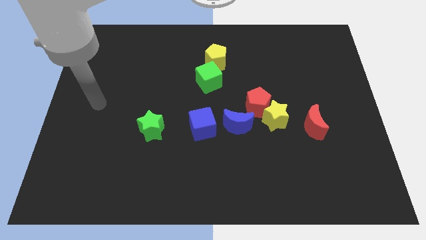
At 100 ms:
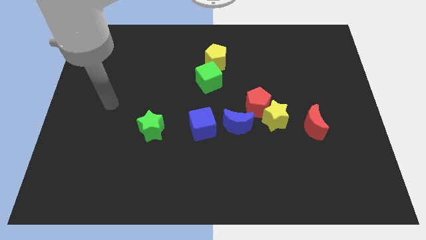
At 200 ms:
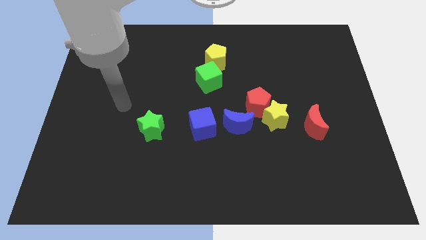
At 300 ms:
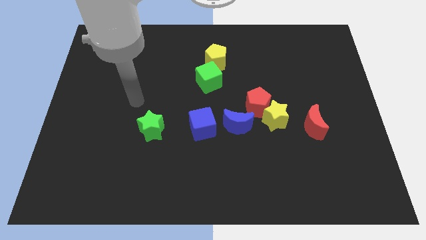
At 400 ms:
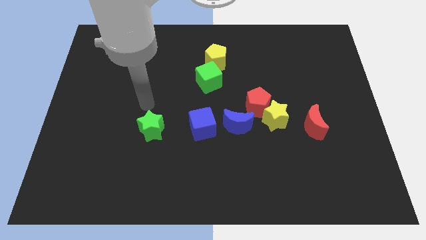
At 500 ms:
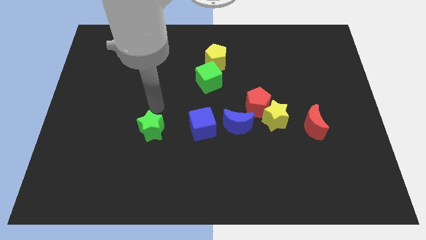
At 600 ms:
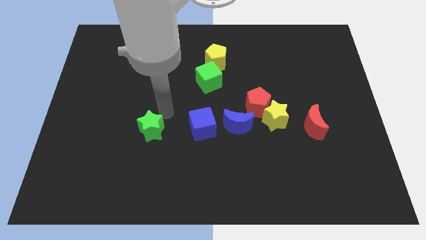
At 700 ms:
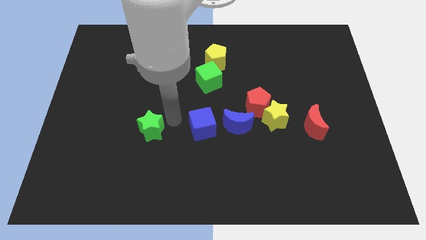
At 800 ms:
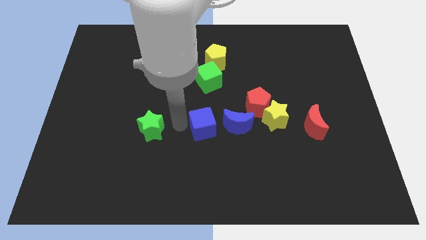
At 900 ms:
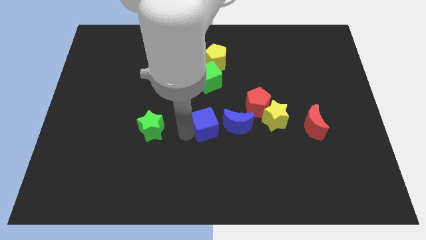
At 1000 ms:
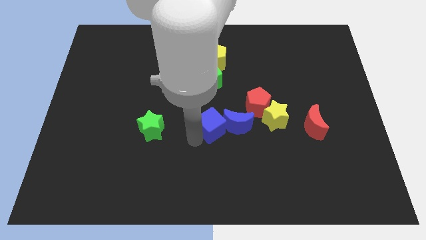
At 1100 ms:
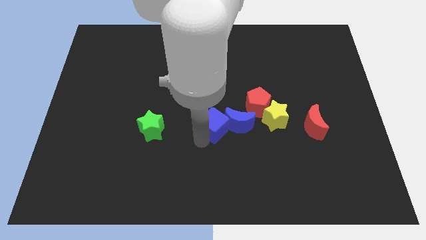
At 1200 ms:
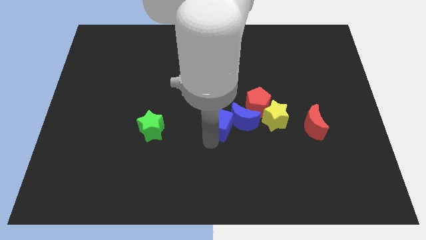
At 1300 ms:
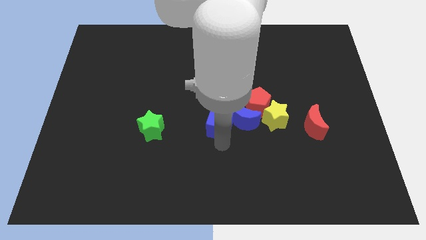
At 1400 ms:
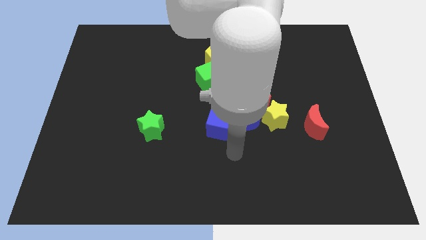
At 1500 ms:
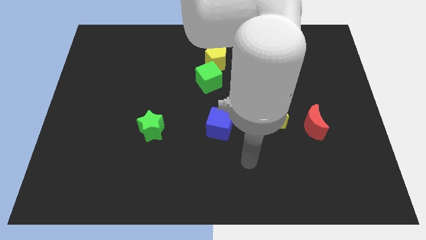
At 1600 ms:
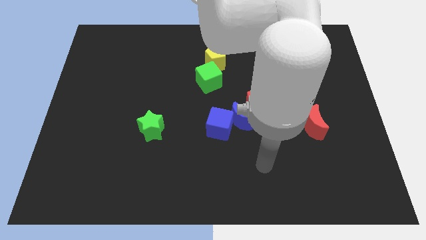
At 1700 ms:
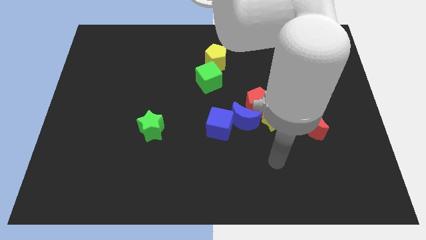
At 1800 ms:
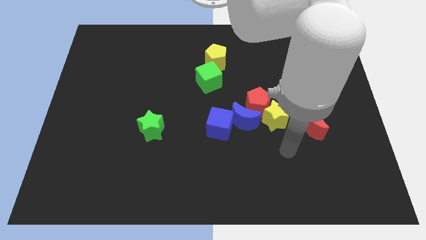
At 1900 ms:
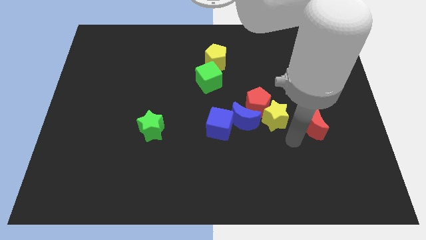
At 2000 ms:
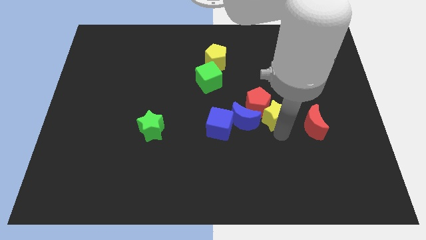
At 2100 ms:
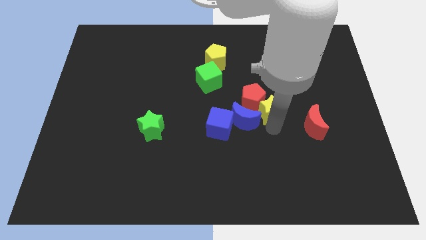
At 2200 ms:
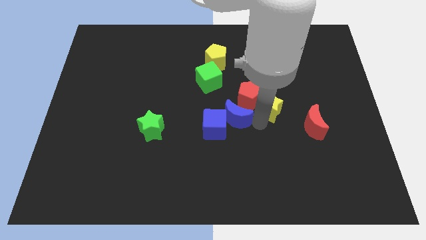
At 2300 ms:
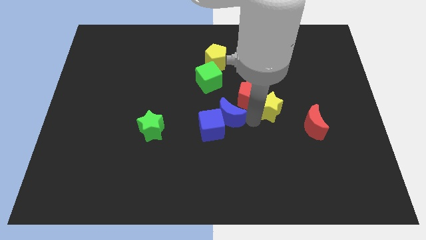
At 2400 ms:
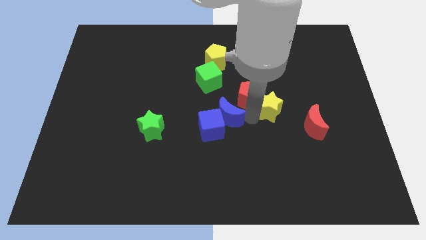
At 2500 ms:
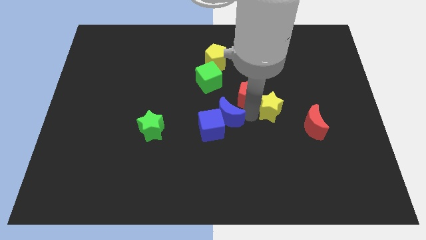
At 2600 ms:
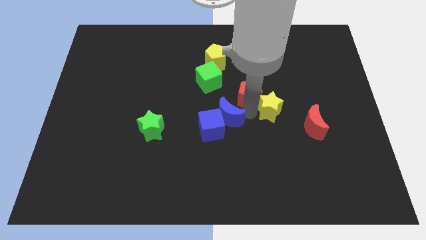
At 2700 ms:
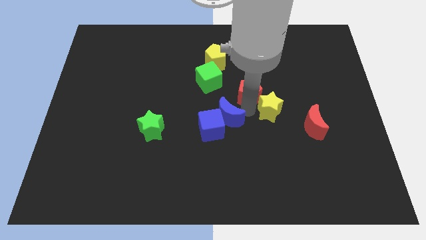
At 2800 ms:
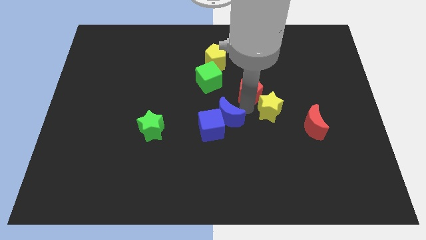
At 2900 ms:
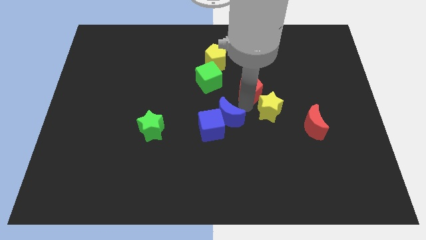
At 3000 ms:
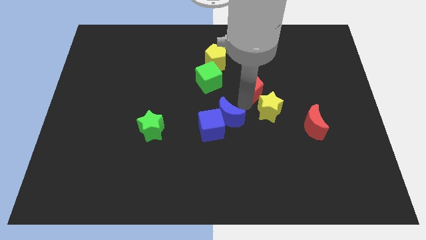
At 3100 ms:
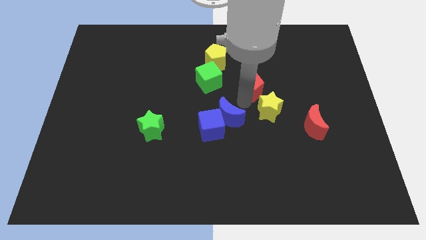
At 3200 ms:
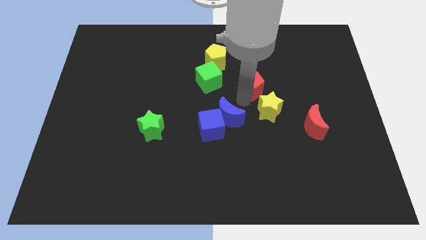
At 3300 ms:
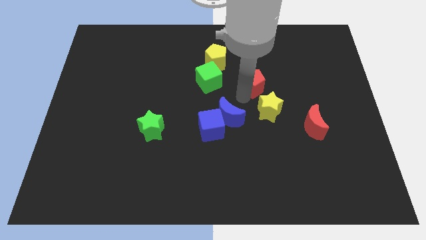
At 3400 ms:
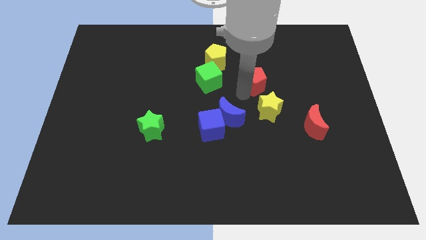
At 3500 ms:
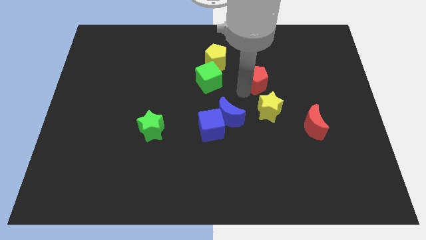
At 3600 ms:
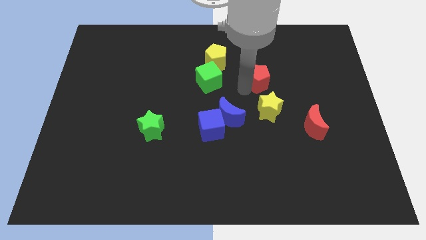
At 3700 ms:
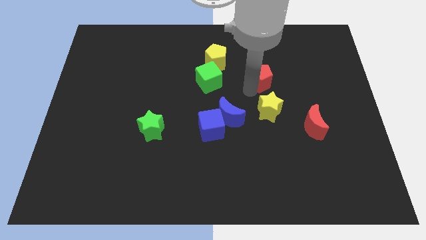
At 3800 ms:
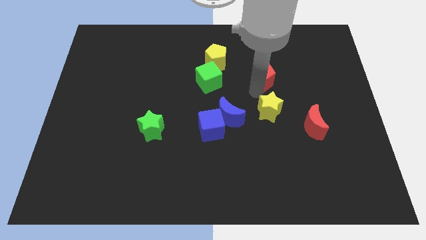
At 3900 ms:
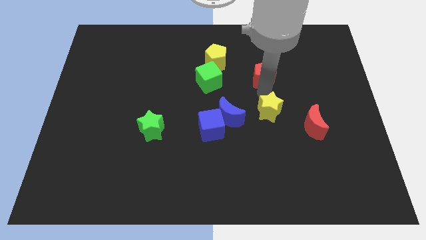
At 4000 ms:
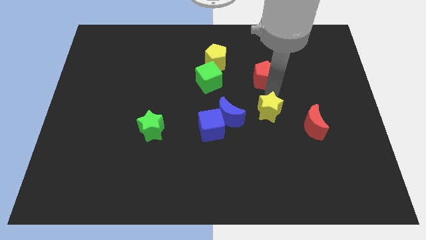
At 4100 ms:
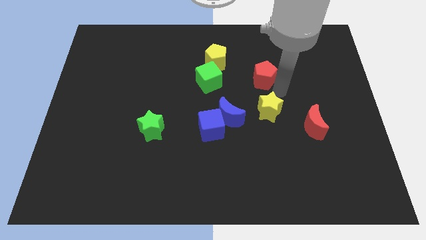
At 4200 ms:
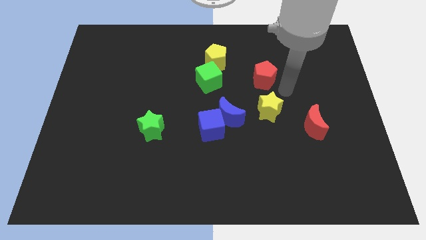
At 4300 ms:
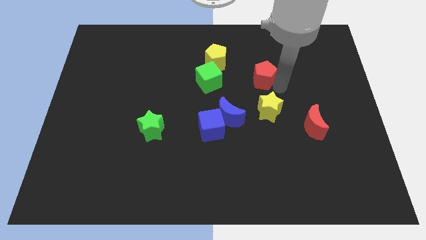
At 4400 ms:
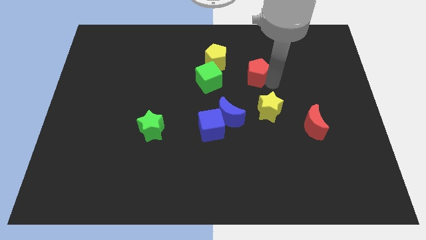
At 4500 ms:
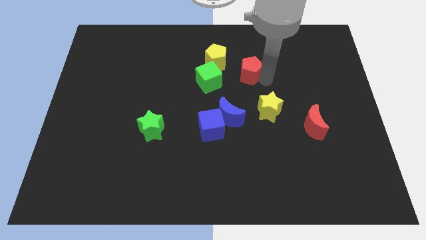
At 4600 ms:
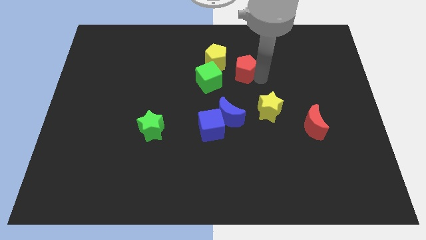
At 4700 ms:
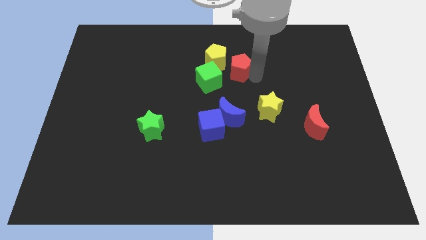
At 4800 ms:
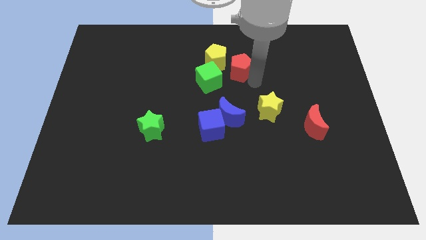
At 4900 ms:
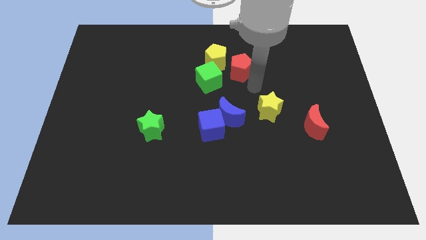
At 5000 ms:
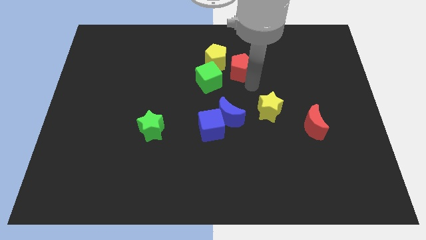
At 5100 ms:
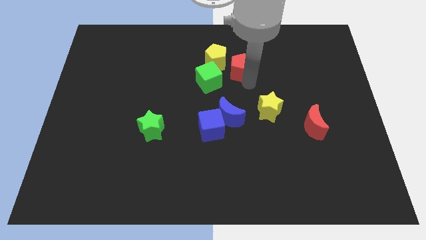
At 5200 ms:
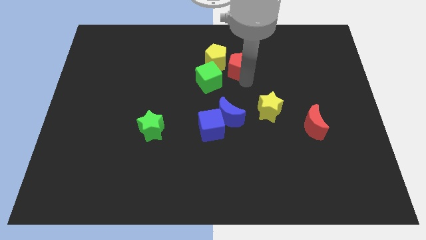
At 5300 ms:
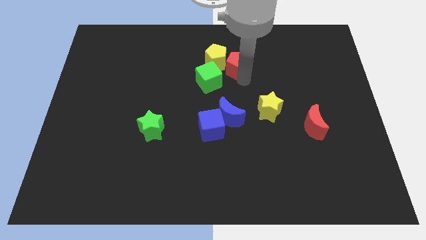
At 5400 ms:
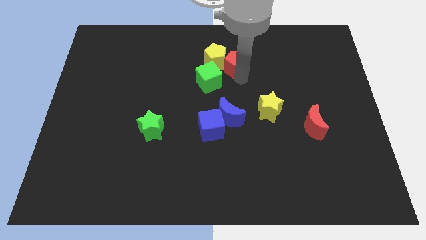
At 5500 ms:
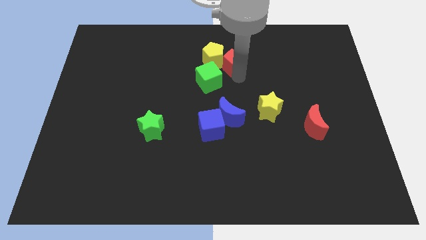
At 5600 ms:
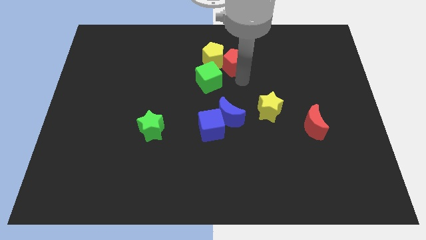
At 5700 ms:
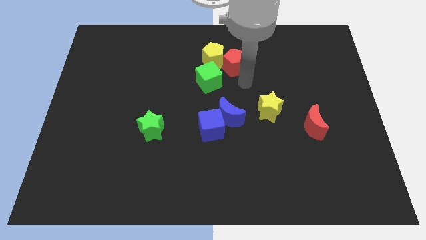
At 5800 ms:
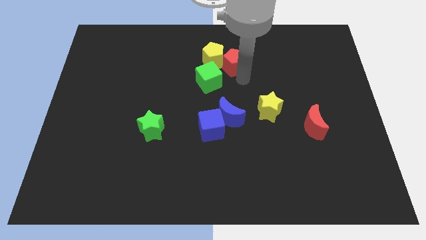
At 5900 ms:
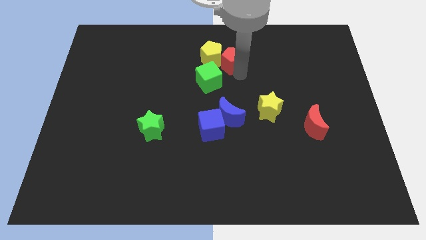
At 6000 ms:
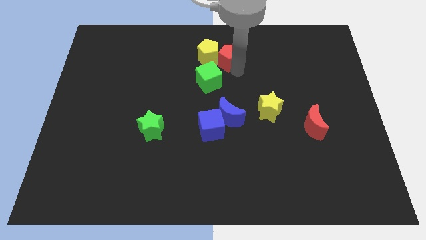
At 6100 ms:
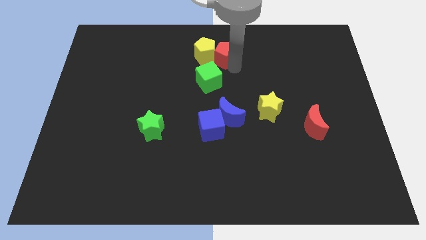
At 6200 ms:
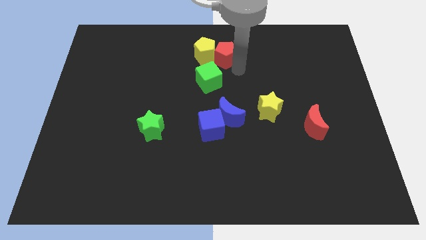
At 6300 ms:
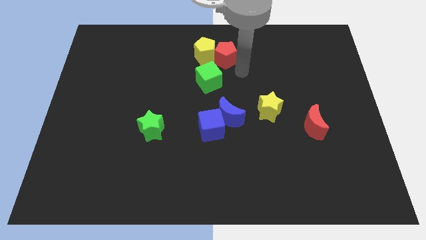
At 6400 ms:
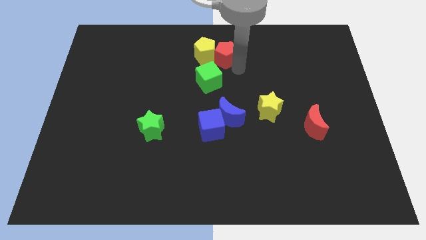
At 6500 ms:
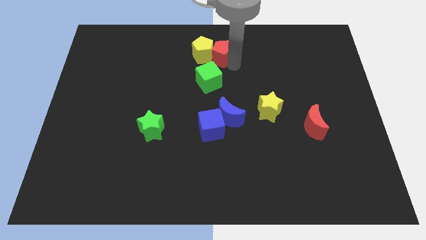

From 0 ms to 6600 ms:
move the red pentagon to the towards your base

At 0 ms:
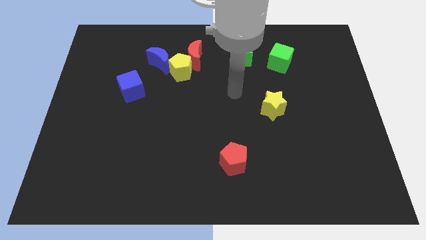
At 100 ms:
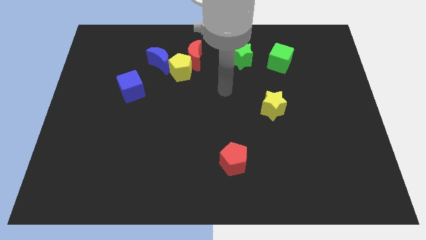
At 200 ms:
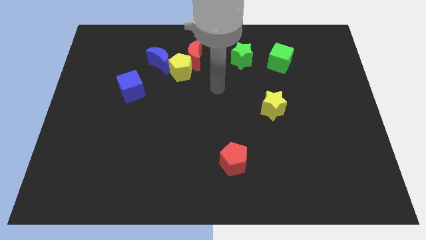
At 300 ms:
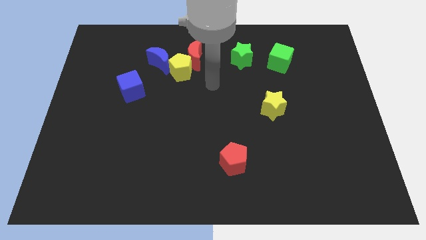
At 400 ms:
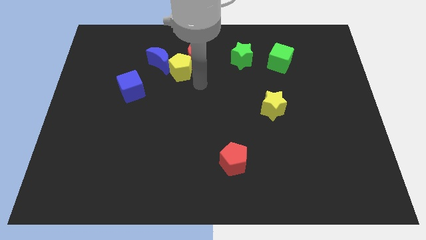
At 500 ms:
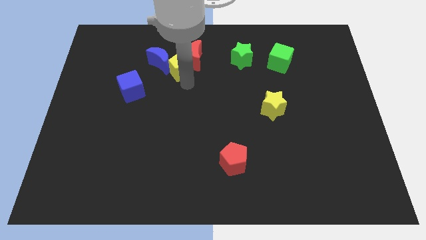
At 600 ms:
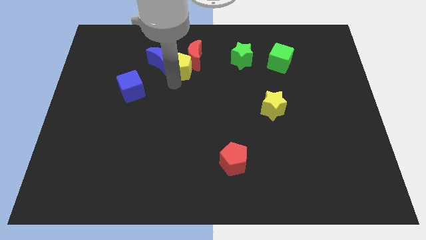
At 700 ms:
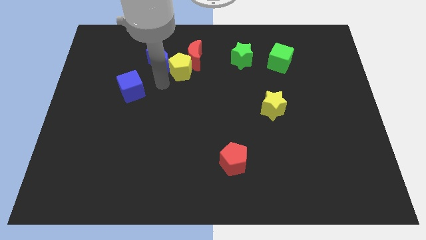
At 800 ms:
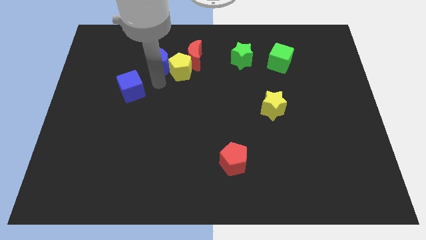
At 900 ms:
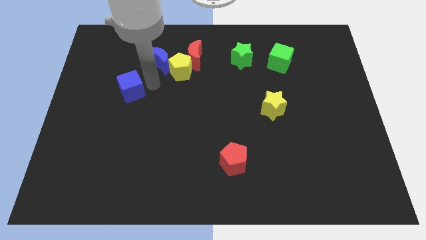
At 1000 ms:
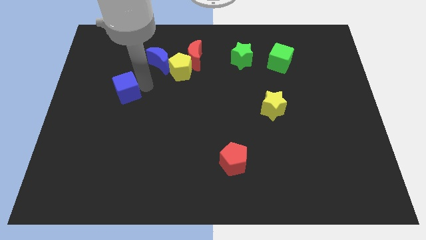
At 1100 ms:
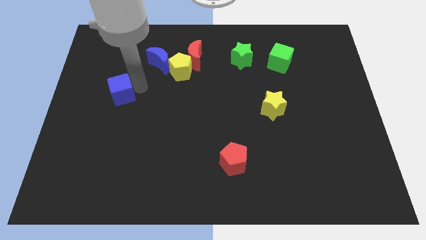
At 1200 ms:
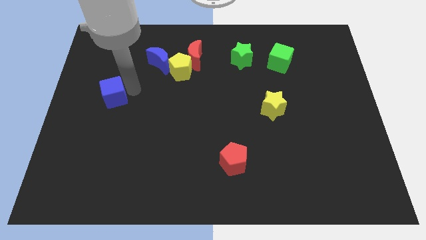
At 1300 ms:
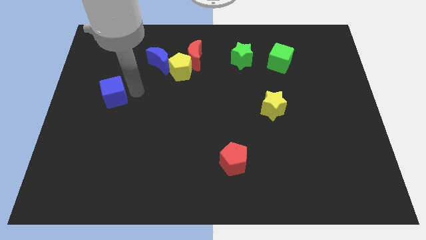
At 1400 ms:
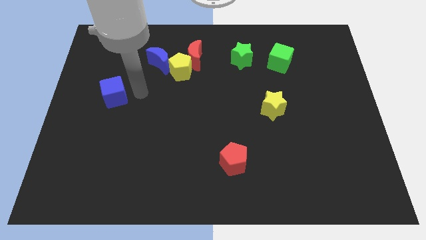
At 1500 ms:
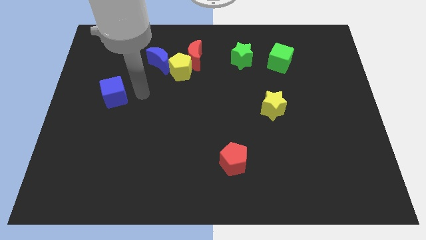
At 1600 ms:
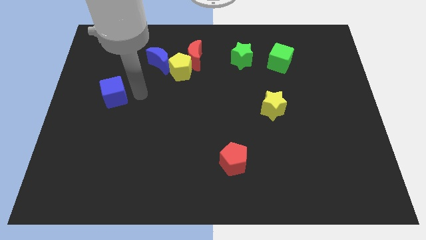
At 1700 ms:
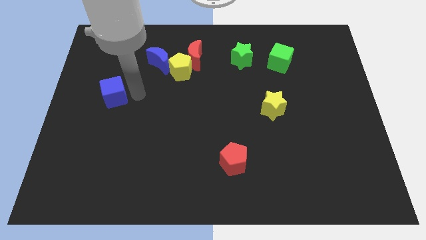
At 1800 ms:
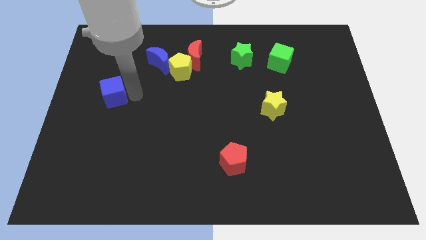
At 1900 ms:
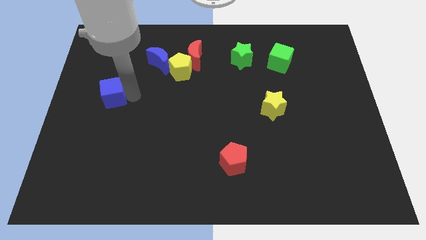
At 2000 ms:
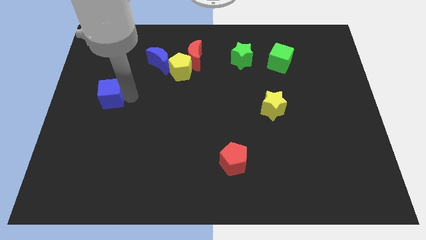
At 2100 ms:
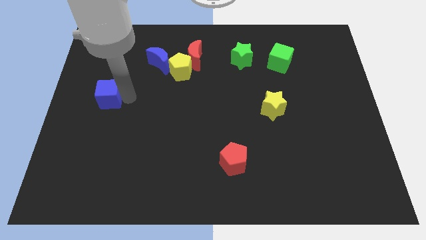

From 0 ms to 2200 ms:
slide the blue cube to the left side
